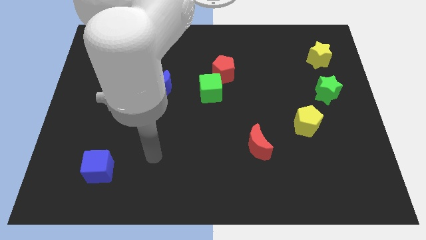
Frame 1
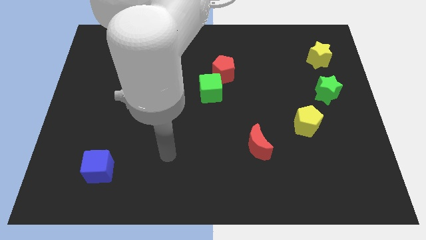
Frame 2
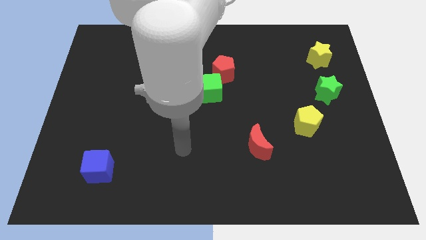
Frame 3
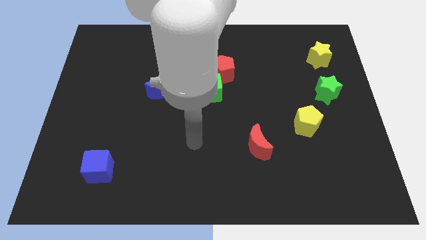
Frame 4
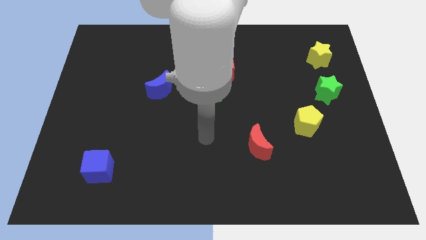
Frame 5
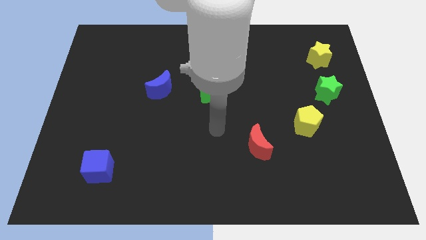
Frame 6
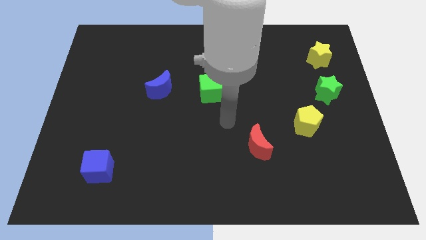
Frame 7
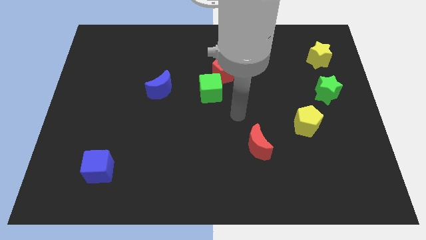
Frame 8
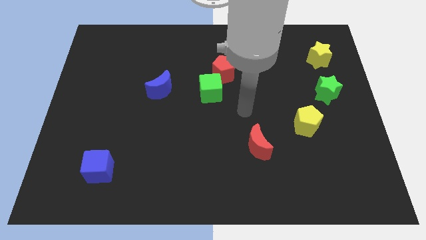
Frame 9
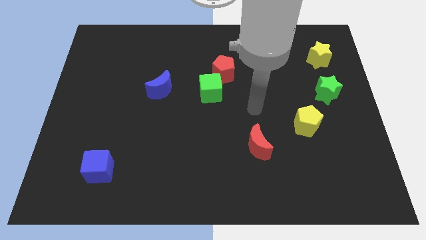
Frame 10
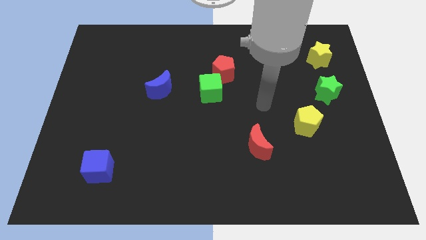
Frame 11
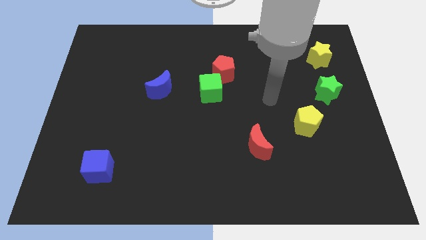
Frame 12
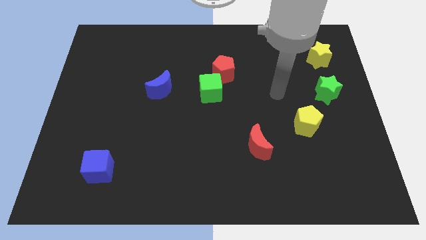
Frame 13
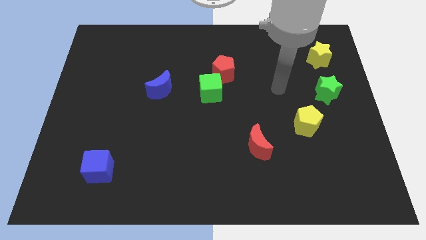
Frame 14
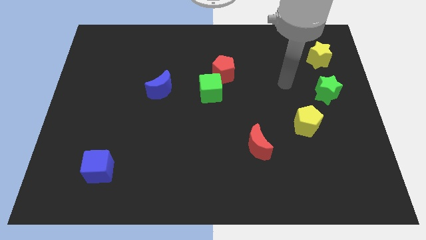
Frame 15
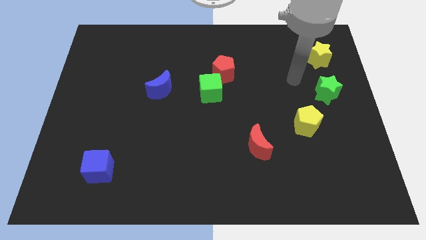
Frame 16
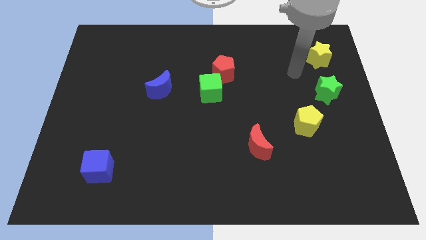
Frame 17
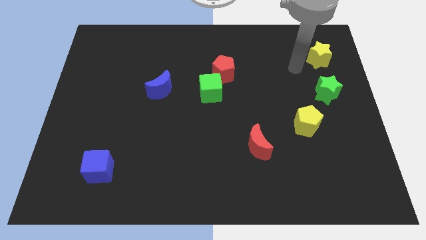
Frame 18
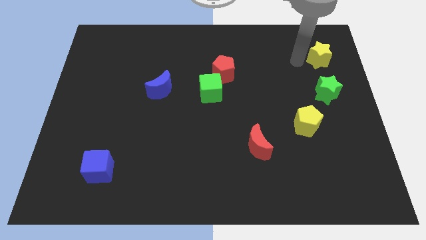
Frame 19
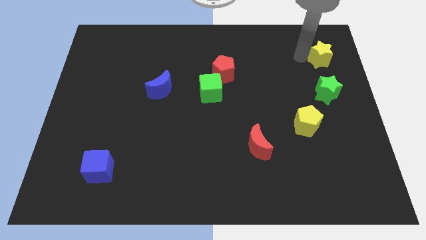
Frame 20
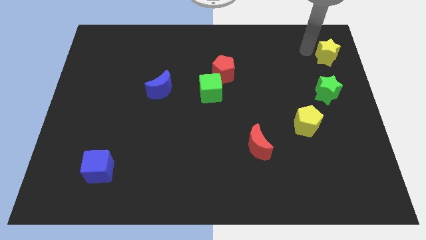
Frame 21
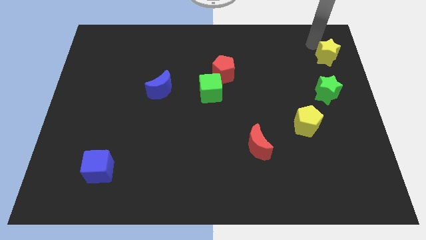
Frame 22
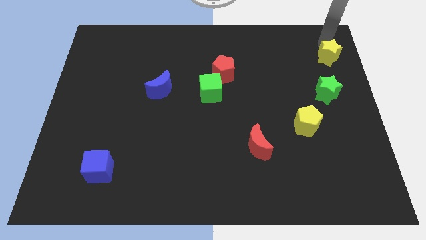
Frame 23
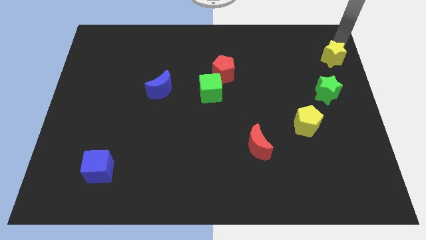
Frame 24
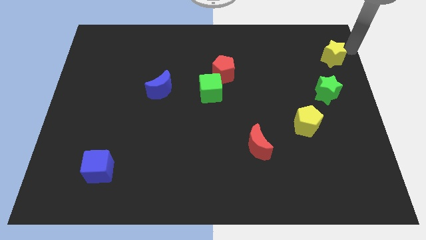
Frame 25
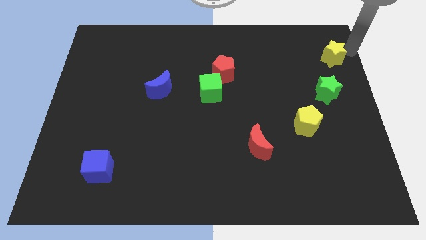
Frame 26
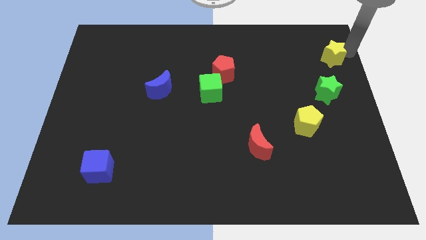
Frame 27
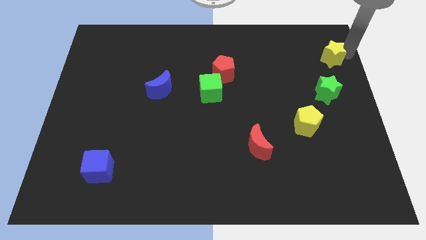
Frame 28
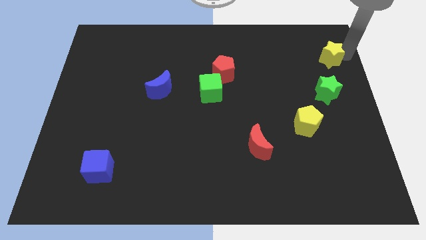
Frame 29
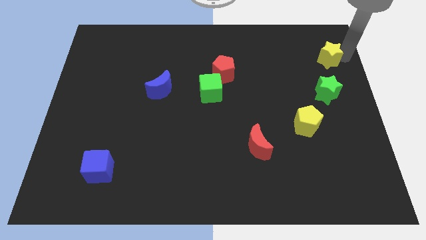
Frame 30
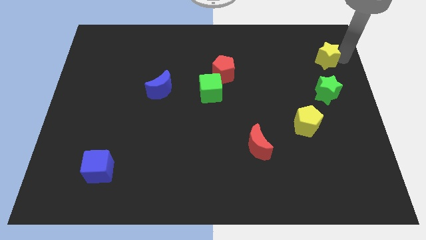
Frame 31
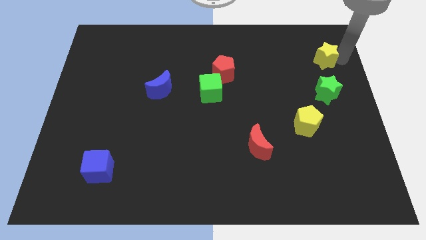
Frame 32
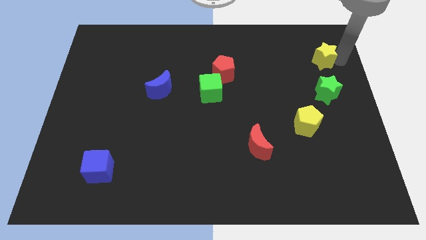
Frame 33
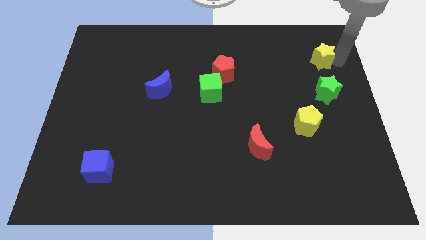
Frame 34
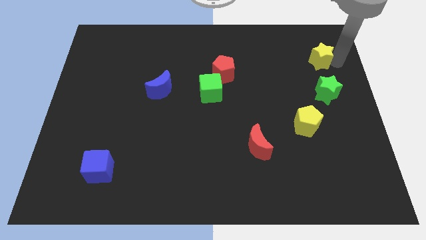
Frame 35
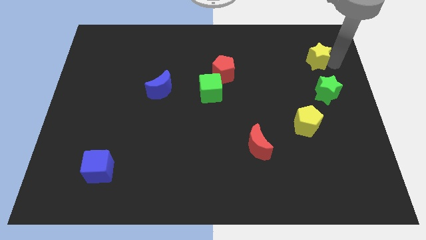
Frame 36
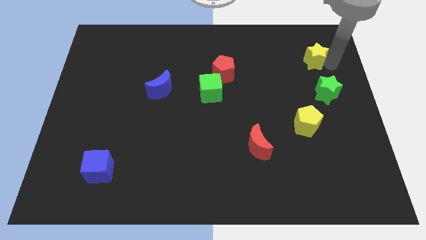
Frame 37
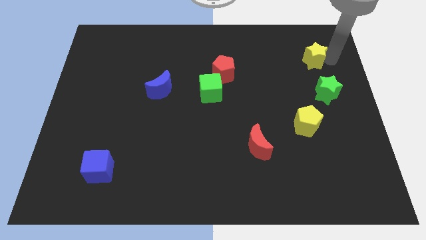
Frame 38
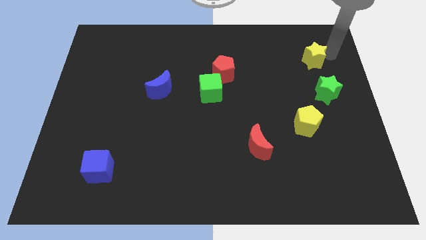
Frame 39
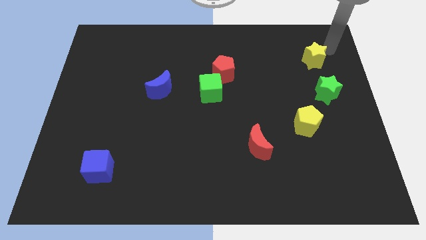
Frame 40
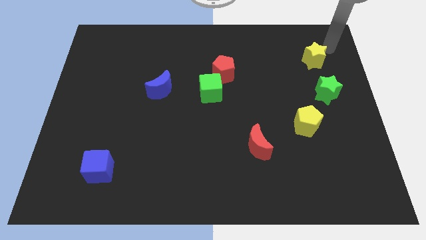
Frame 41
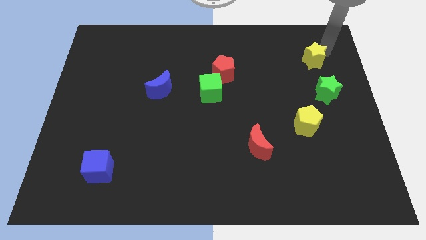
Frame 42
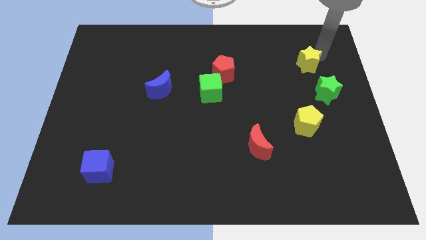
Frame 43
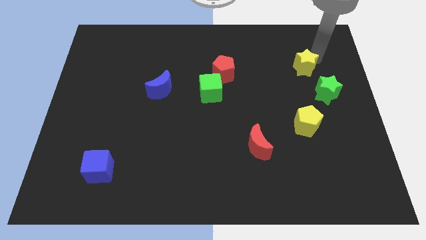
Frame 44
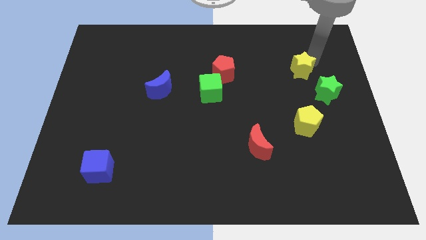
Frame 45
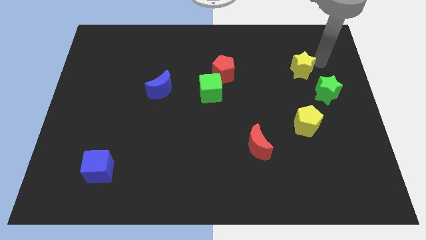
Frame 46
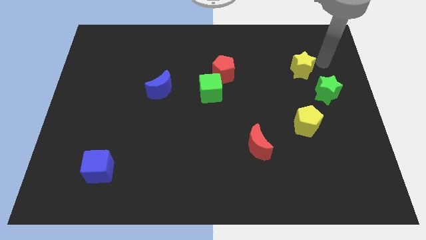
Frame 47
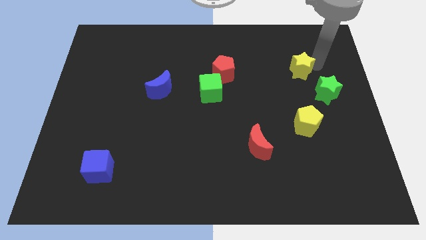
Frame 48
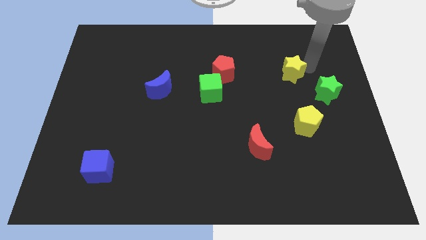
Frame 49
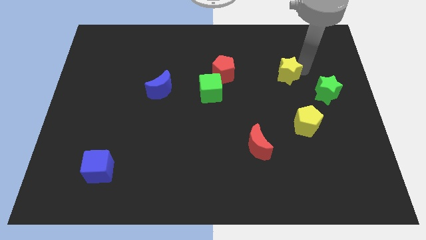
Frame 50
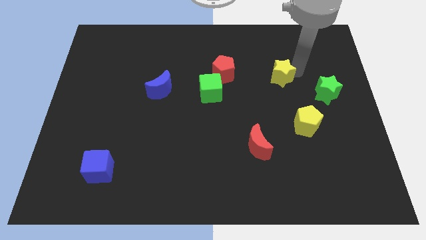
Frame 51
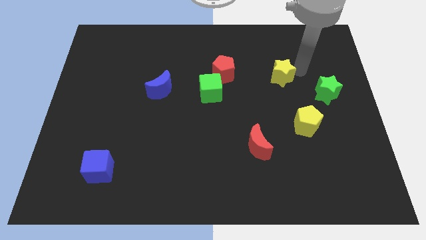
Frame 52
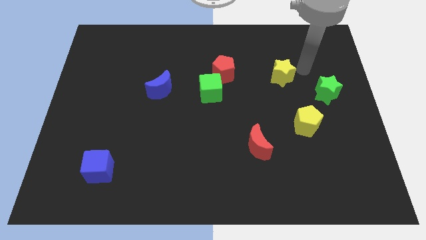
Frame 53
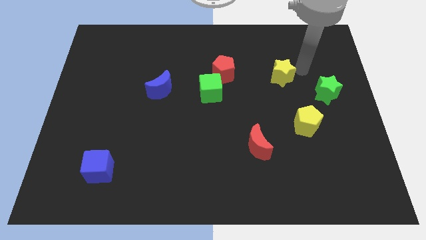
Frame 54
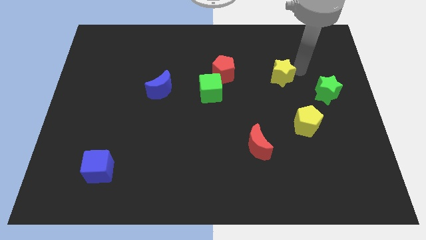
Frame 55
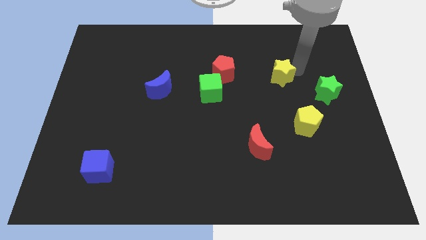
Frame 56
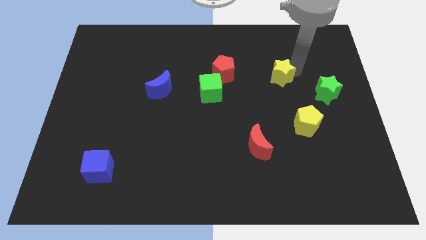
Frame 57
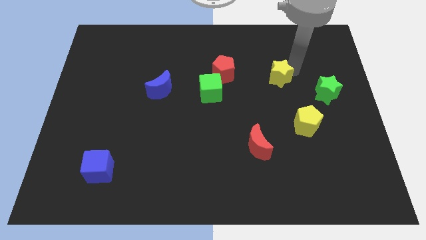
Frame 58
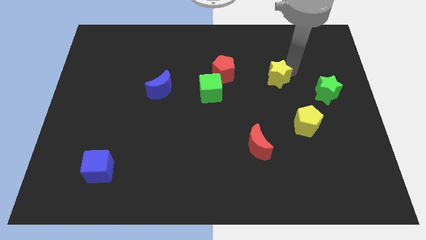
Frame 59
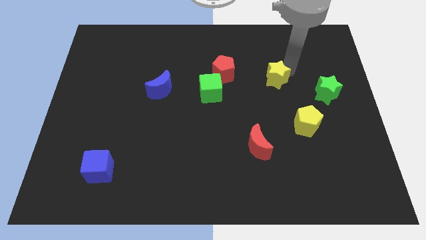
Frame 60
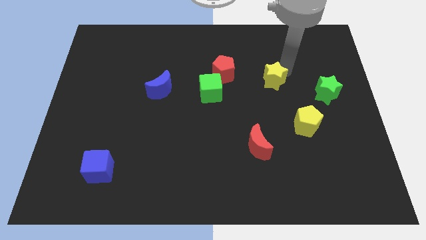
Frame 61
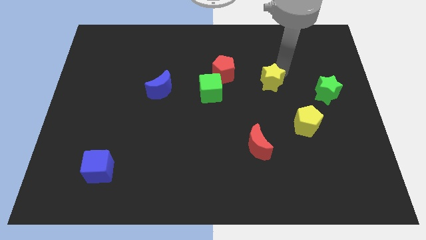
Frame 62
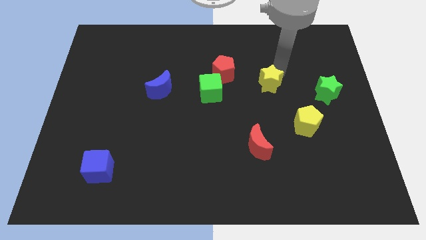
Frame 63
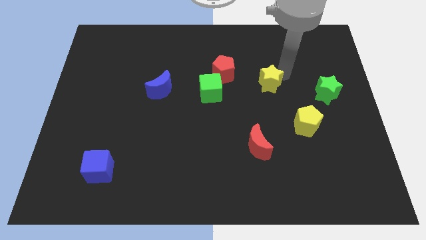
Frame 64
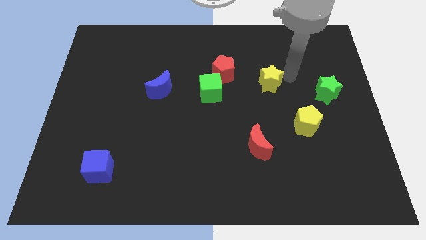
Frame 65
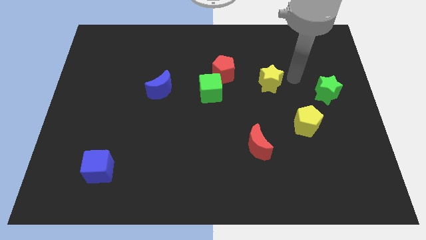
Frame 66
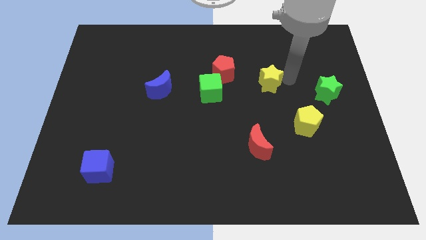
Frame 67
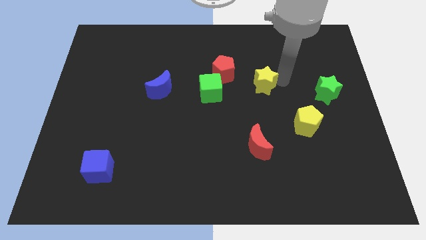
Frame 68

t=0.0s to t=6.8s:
slide the yellow star to the bottom right of the red pentagon
